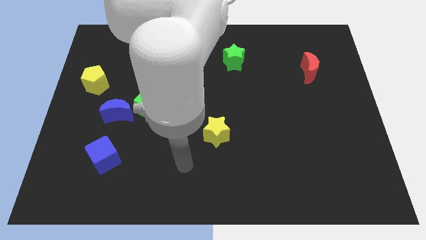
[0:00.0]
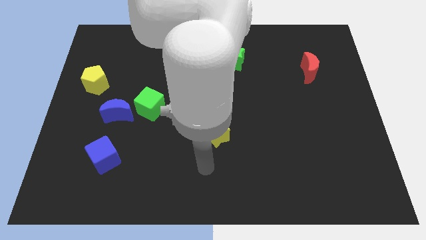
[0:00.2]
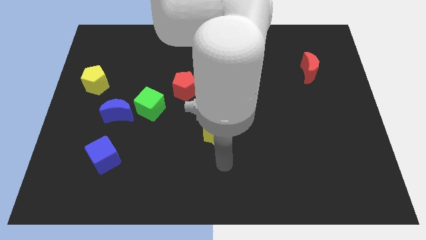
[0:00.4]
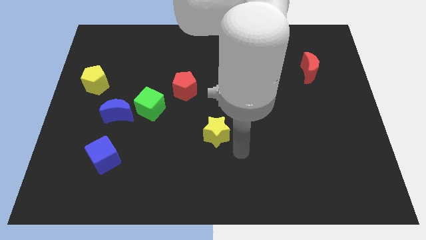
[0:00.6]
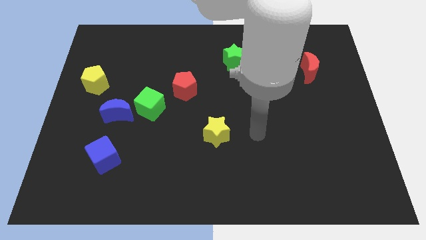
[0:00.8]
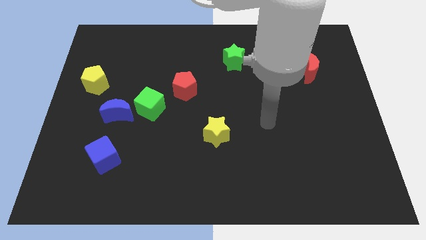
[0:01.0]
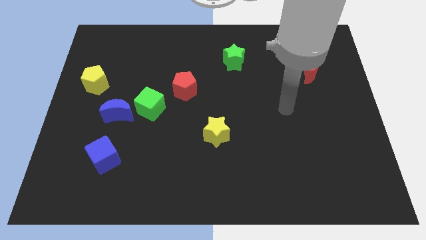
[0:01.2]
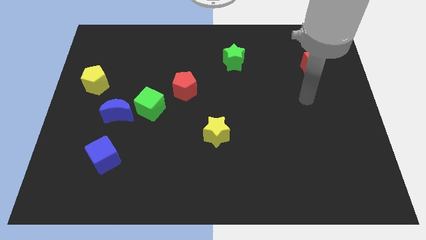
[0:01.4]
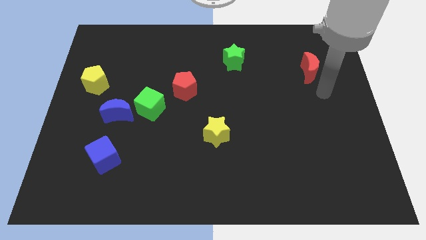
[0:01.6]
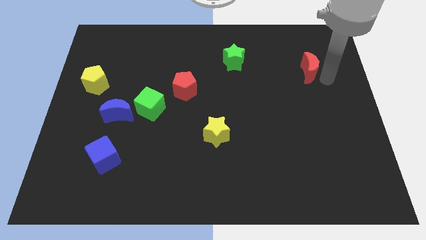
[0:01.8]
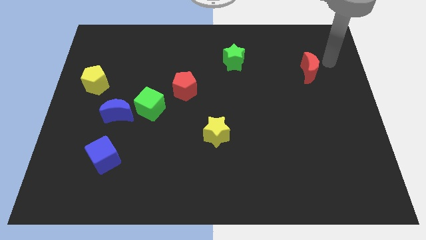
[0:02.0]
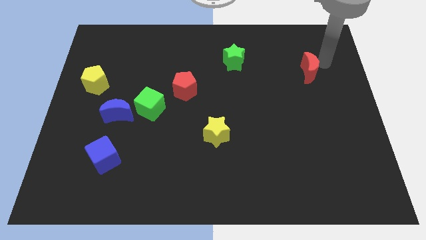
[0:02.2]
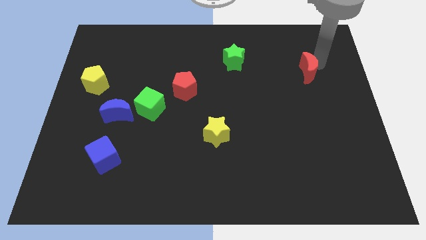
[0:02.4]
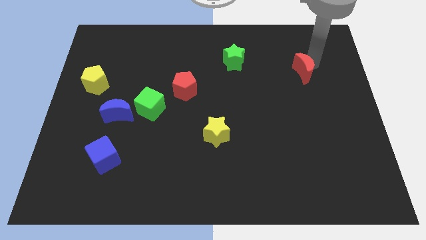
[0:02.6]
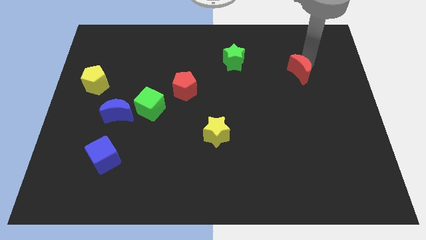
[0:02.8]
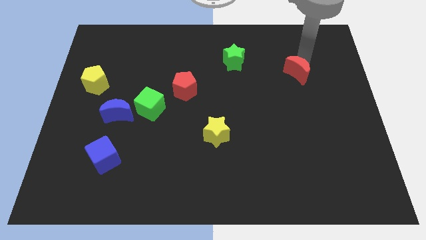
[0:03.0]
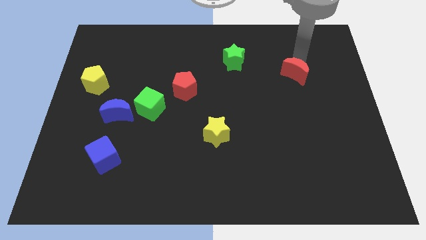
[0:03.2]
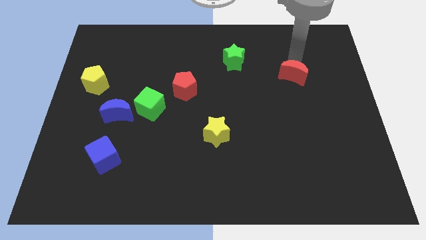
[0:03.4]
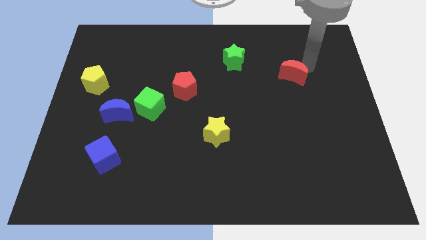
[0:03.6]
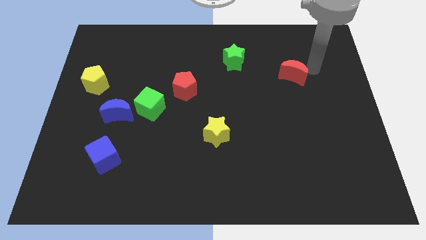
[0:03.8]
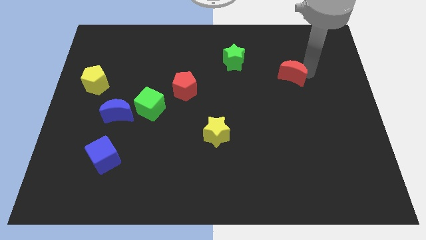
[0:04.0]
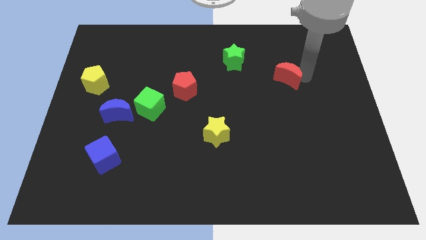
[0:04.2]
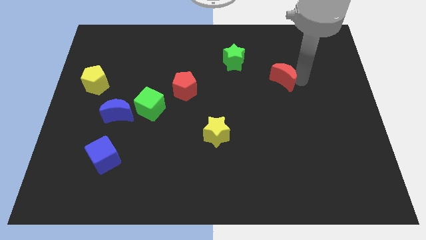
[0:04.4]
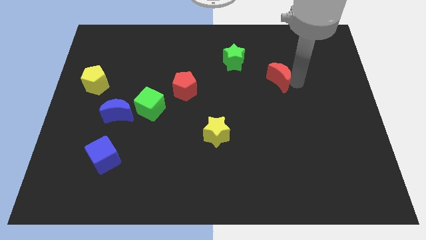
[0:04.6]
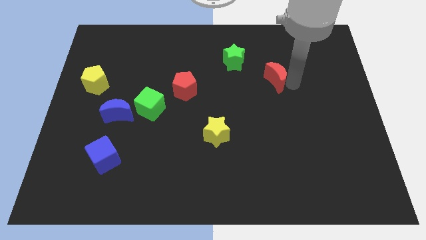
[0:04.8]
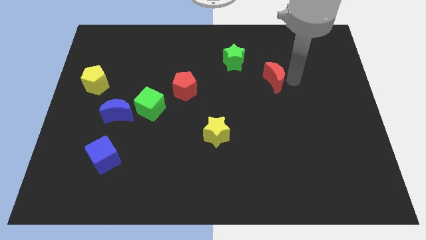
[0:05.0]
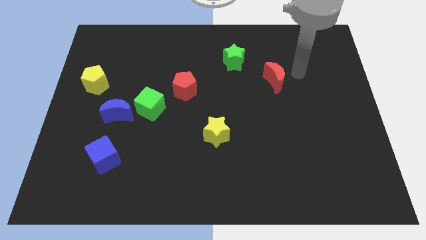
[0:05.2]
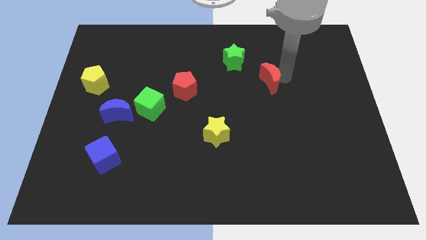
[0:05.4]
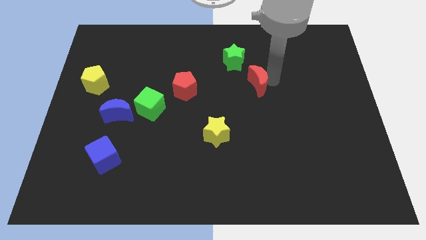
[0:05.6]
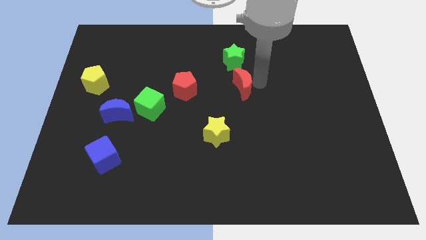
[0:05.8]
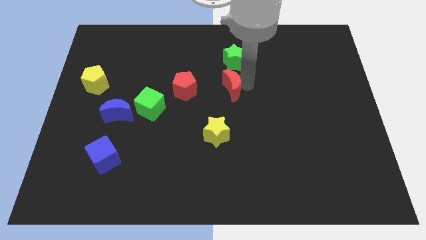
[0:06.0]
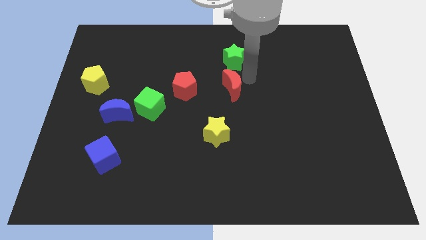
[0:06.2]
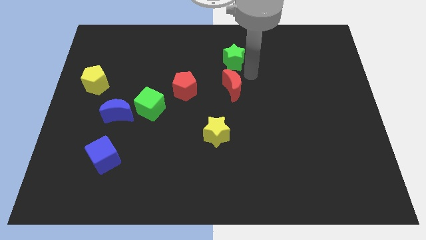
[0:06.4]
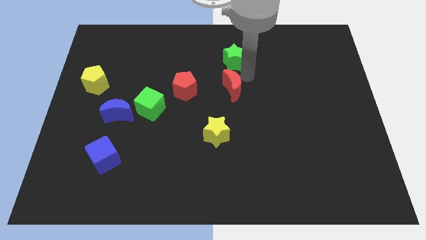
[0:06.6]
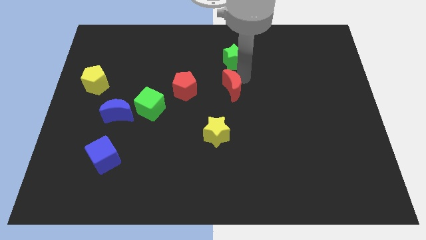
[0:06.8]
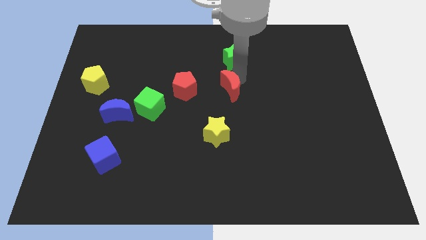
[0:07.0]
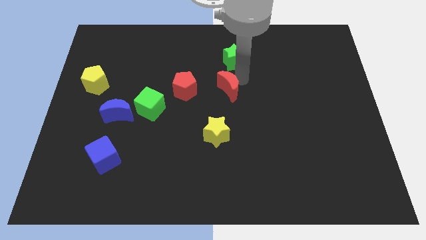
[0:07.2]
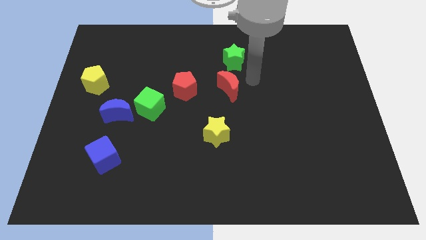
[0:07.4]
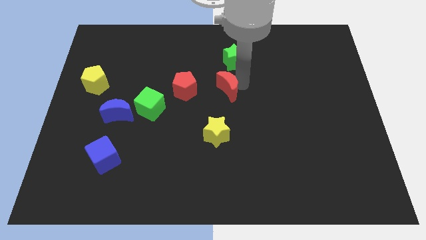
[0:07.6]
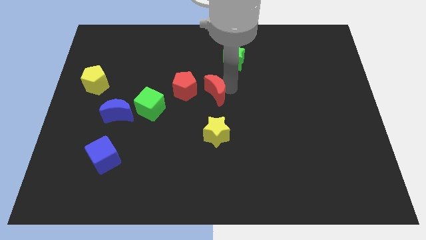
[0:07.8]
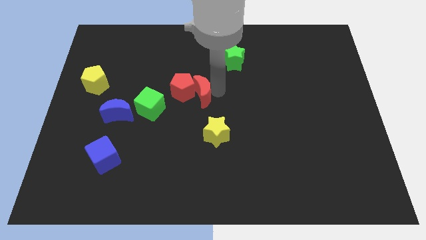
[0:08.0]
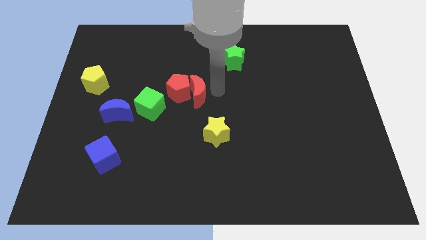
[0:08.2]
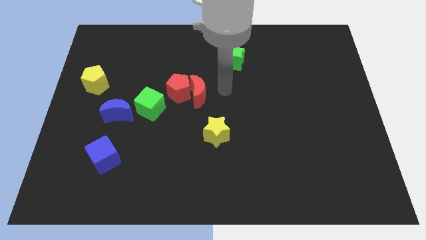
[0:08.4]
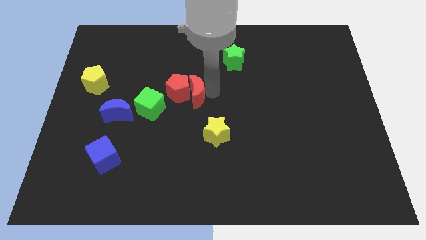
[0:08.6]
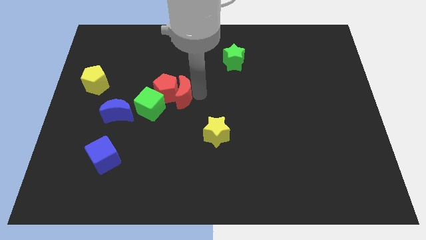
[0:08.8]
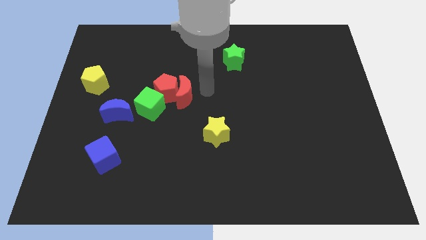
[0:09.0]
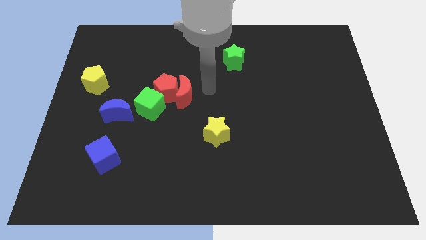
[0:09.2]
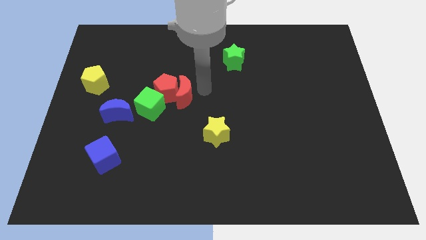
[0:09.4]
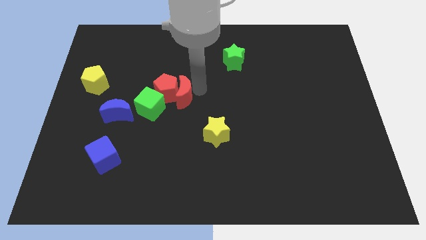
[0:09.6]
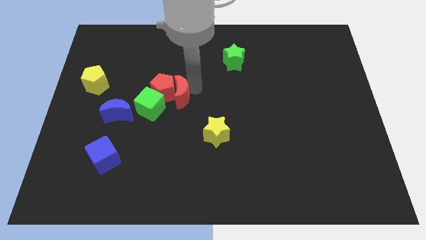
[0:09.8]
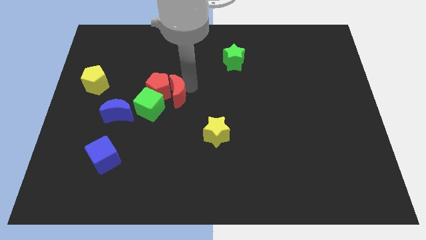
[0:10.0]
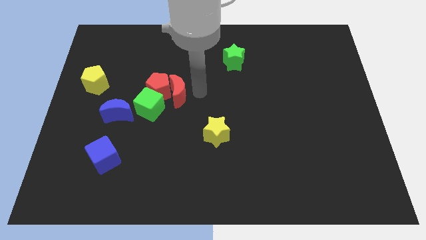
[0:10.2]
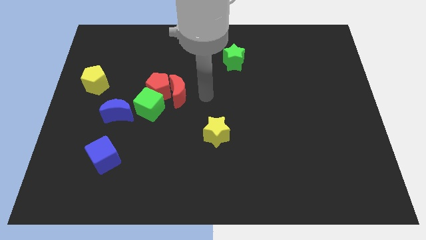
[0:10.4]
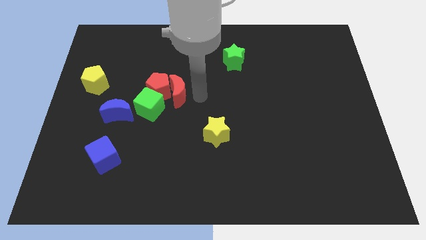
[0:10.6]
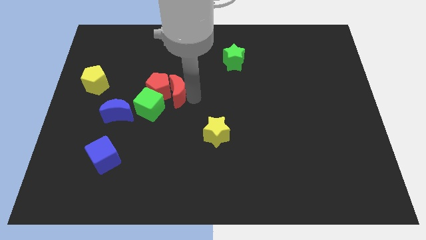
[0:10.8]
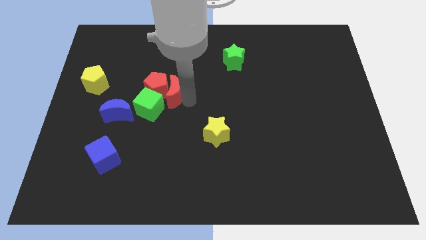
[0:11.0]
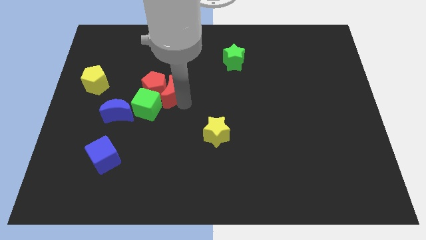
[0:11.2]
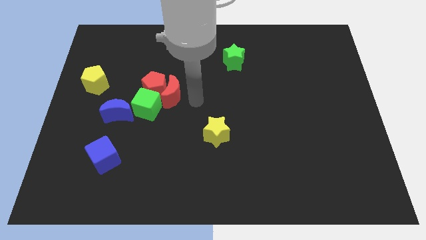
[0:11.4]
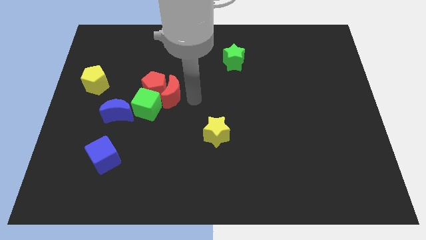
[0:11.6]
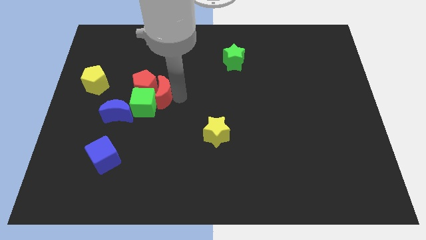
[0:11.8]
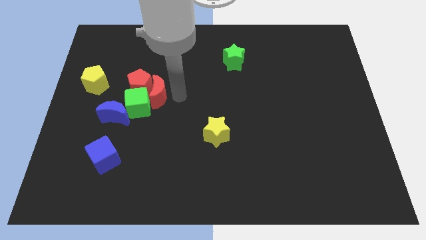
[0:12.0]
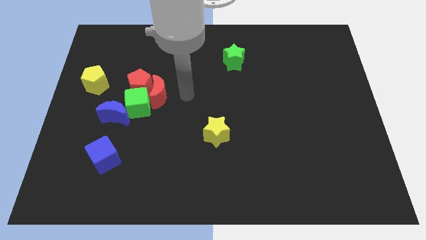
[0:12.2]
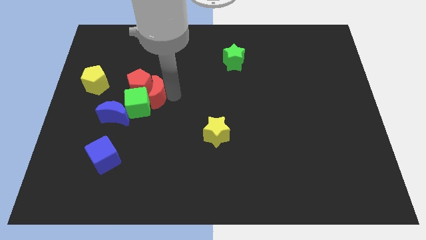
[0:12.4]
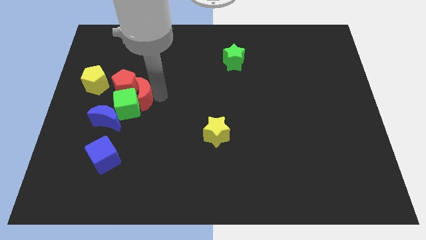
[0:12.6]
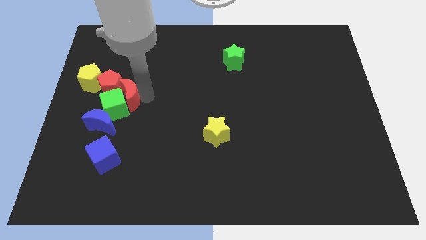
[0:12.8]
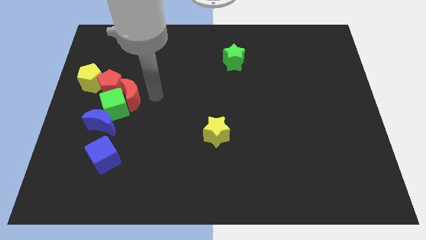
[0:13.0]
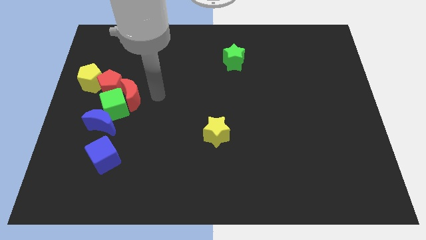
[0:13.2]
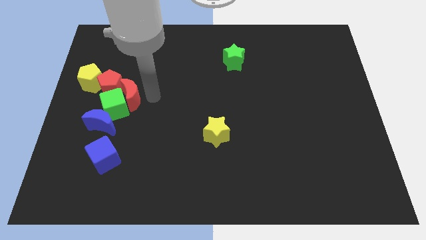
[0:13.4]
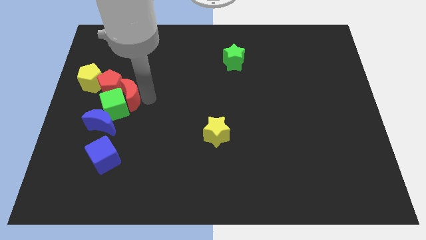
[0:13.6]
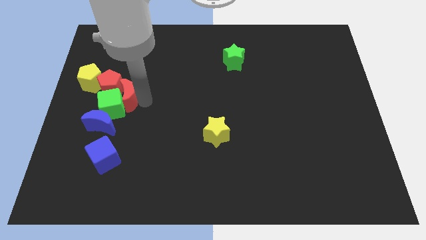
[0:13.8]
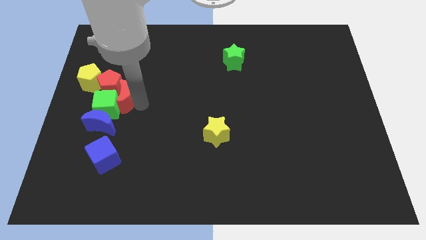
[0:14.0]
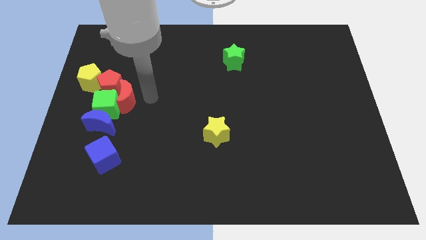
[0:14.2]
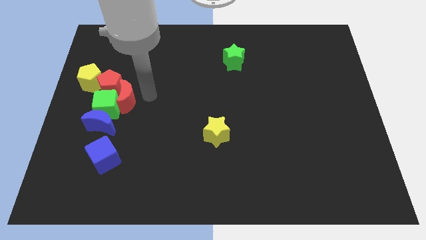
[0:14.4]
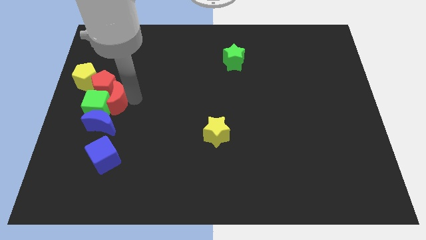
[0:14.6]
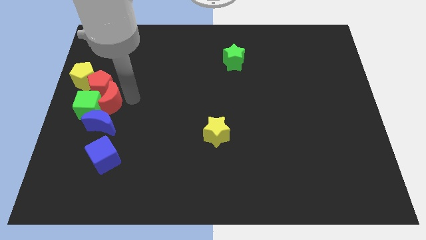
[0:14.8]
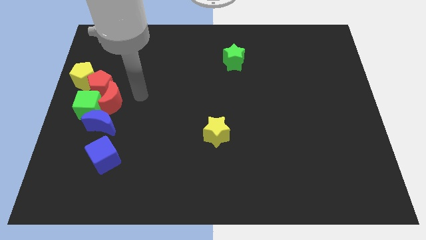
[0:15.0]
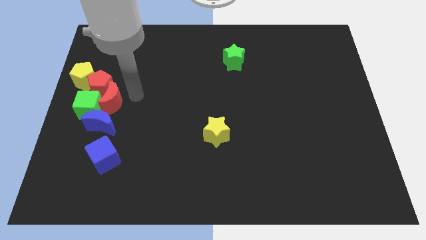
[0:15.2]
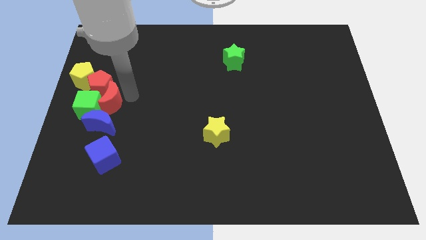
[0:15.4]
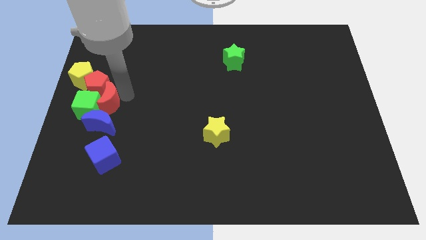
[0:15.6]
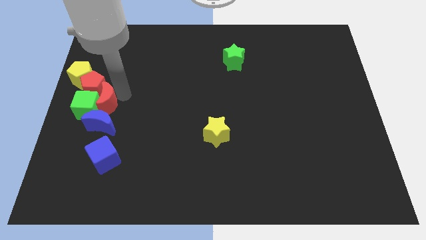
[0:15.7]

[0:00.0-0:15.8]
move the red moon to the center left
